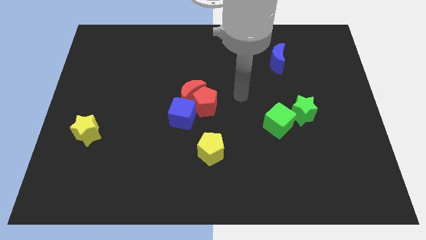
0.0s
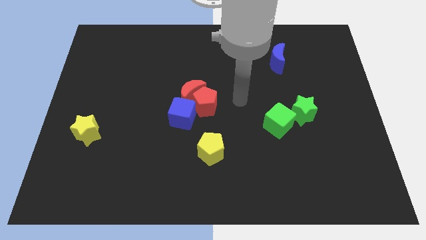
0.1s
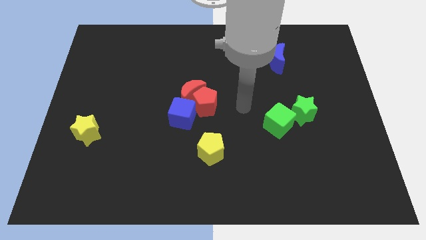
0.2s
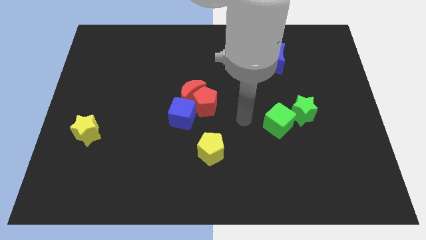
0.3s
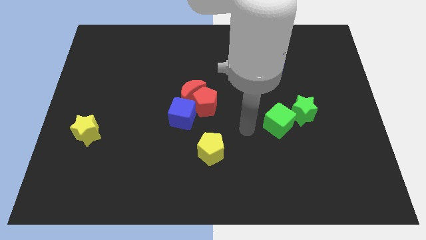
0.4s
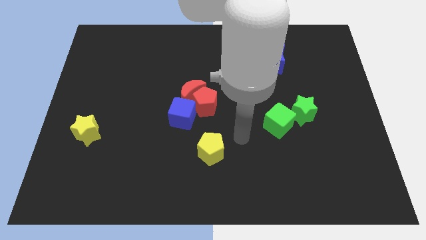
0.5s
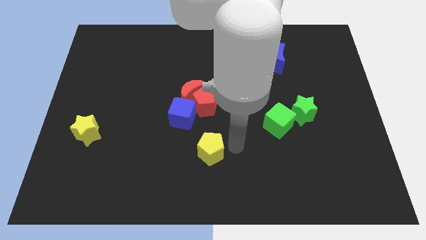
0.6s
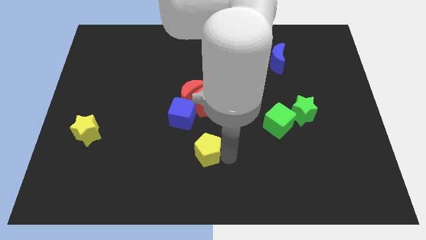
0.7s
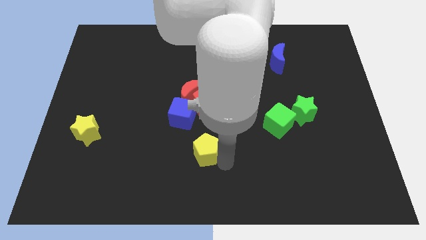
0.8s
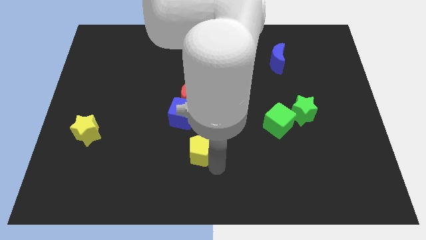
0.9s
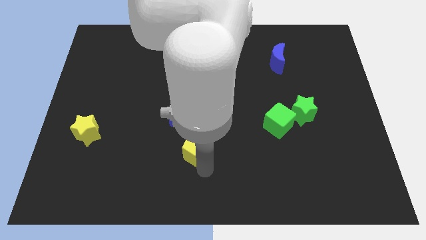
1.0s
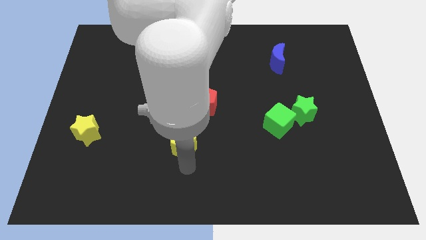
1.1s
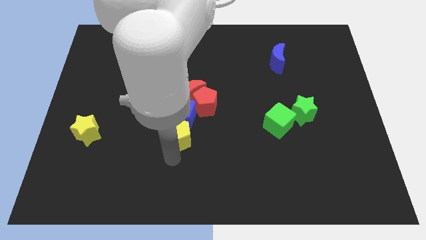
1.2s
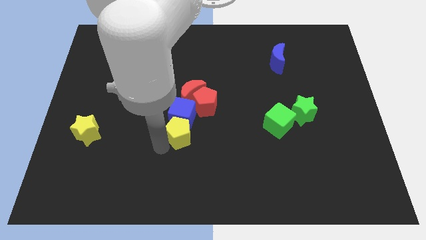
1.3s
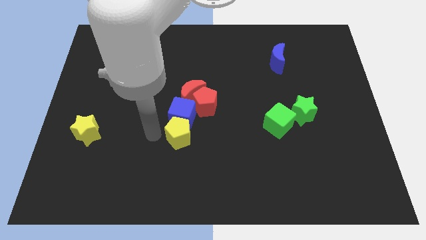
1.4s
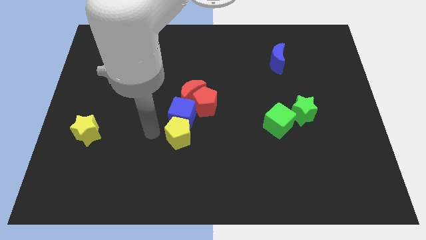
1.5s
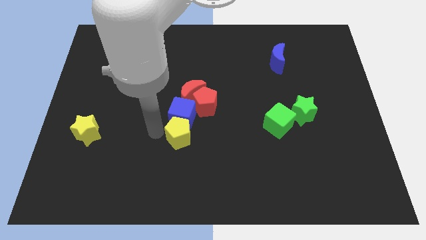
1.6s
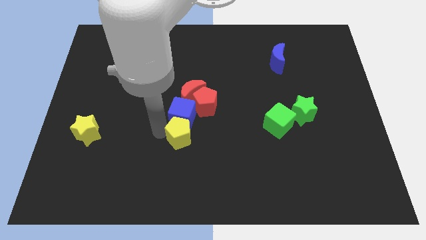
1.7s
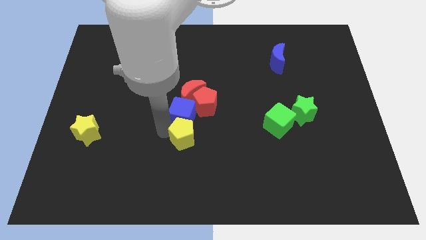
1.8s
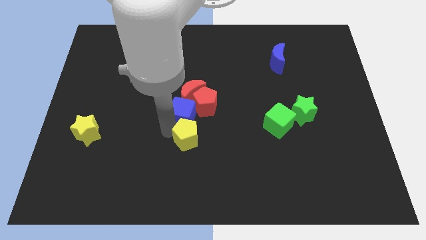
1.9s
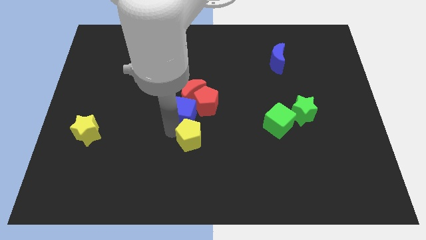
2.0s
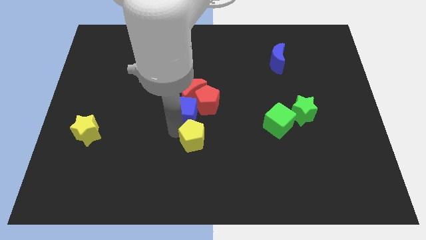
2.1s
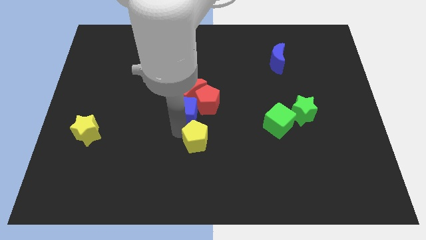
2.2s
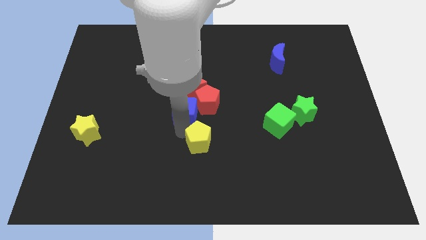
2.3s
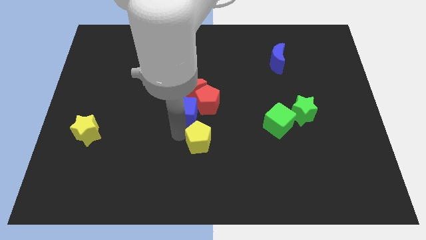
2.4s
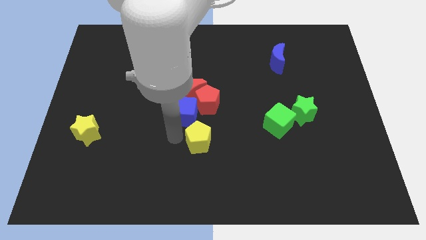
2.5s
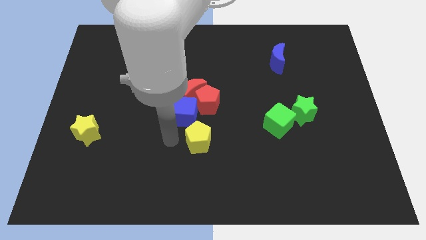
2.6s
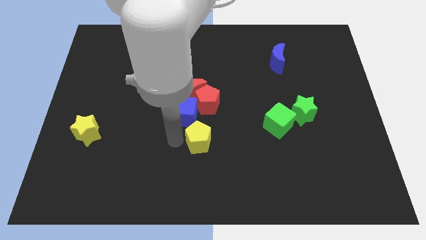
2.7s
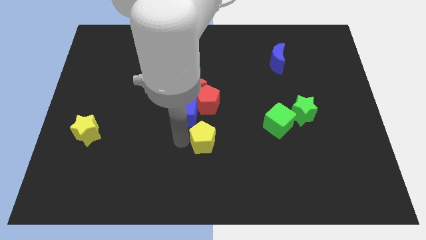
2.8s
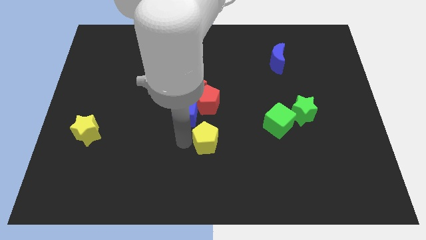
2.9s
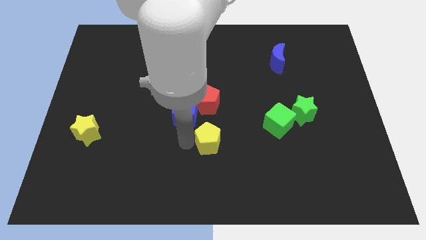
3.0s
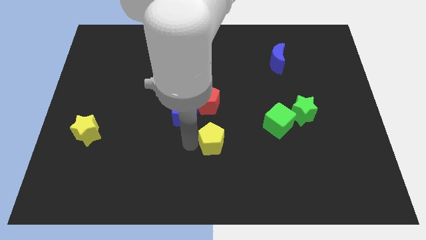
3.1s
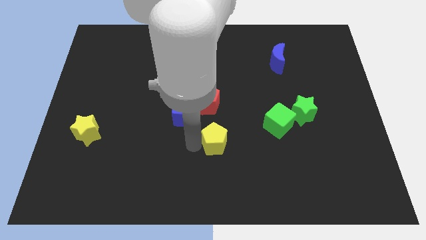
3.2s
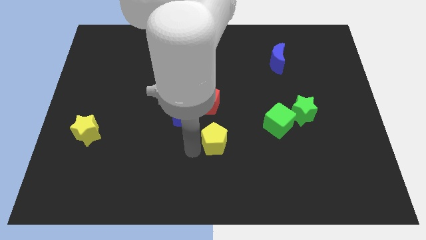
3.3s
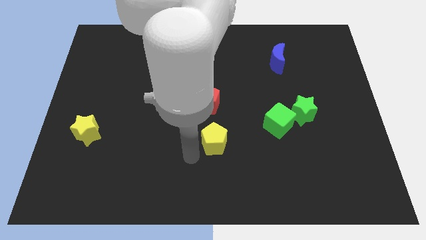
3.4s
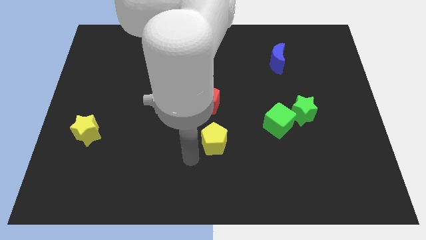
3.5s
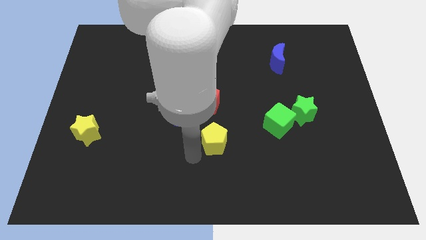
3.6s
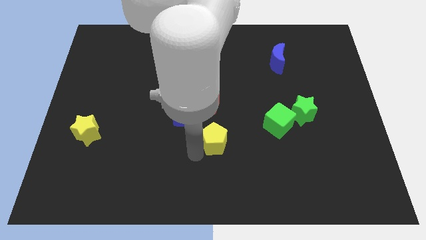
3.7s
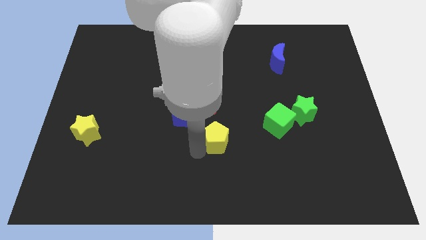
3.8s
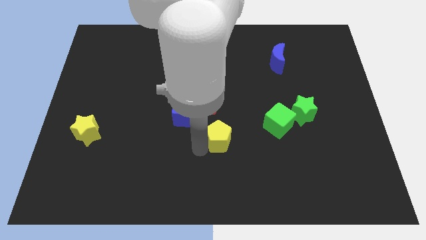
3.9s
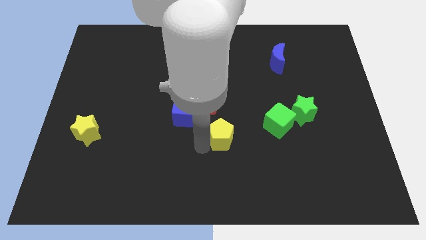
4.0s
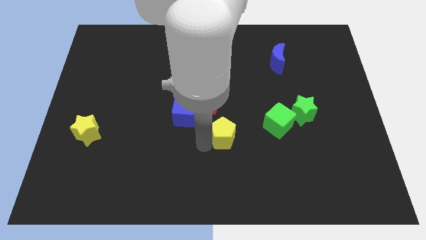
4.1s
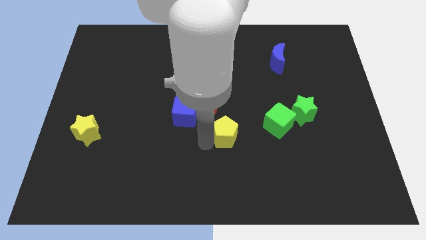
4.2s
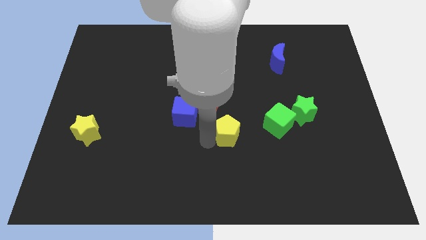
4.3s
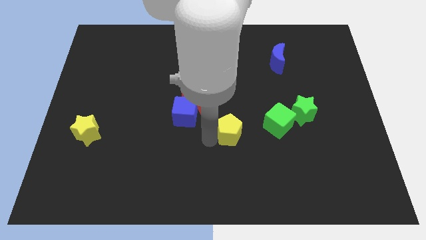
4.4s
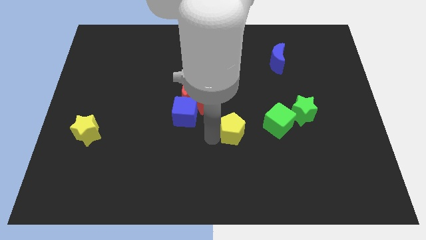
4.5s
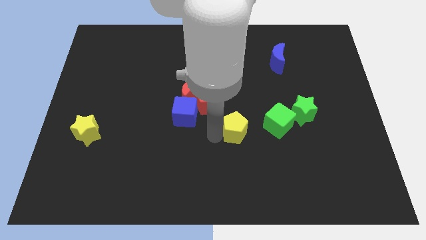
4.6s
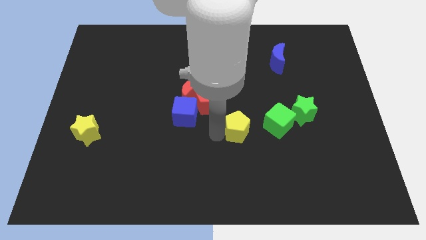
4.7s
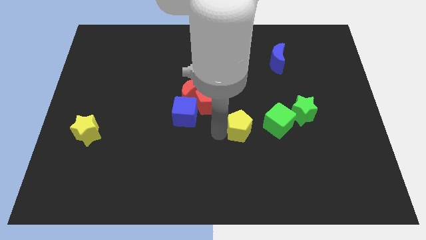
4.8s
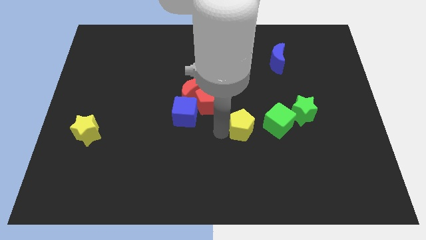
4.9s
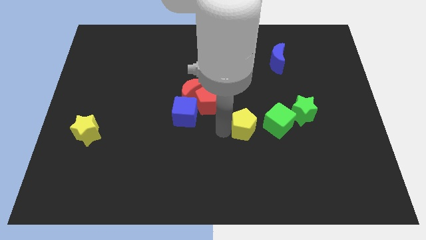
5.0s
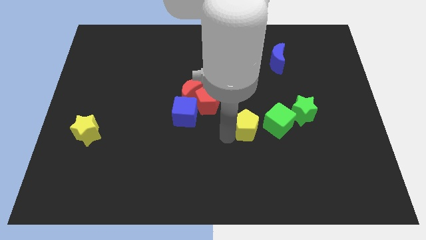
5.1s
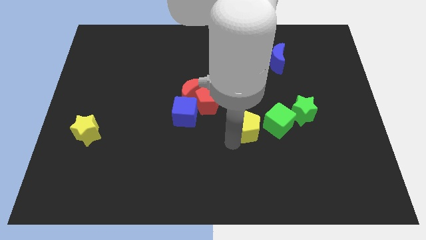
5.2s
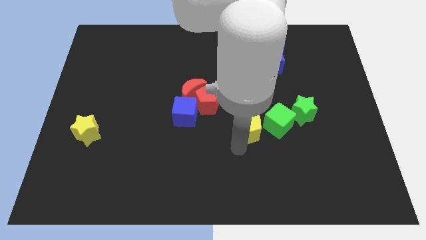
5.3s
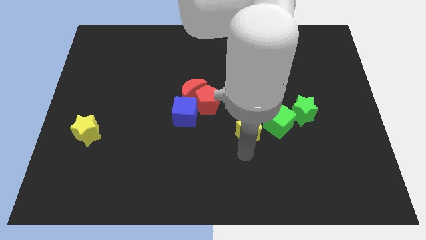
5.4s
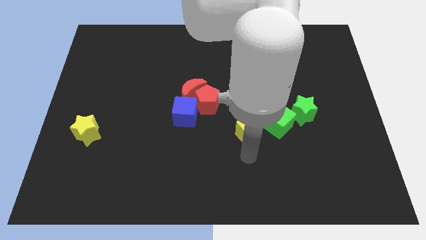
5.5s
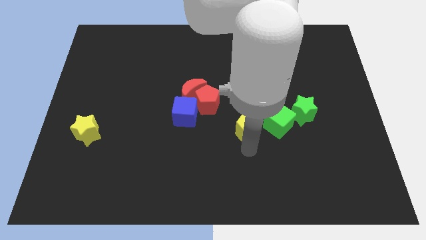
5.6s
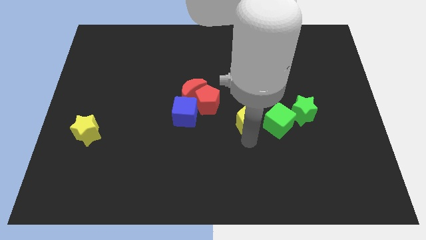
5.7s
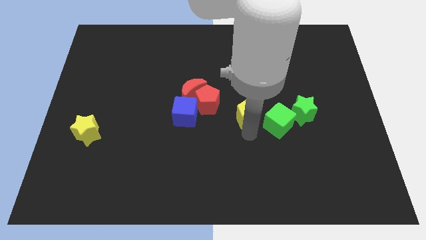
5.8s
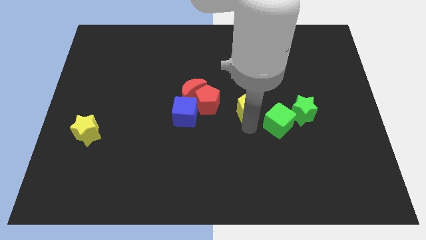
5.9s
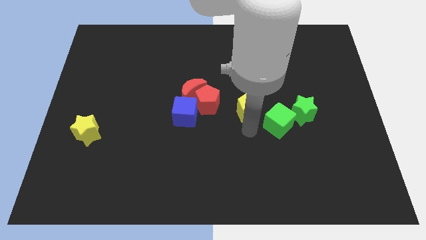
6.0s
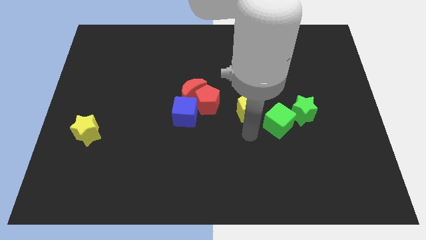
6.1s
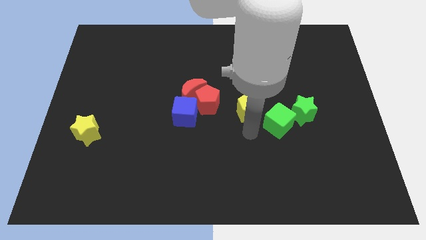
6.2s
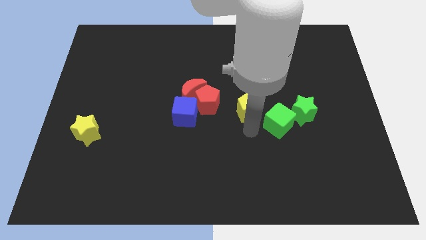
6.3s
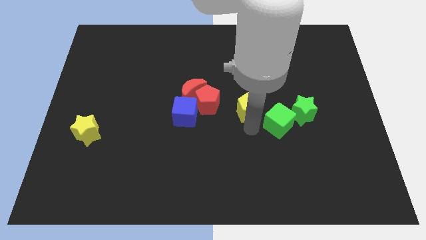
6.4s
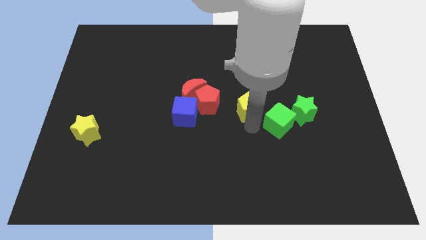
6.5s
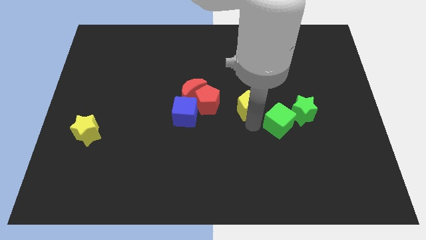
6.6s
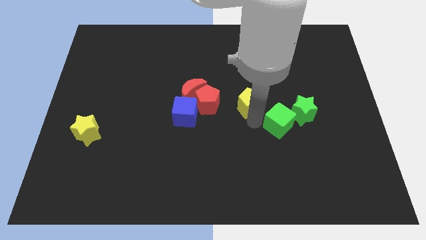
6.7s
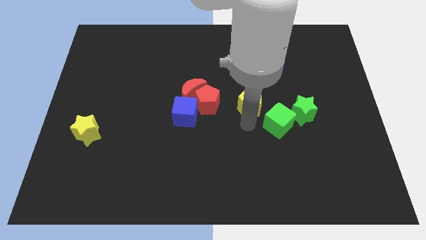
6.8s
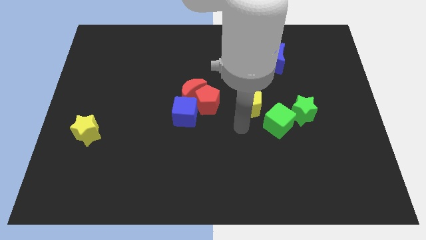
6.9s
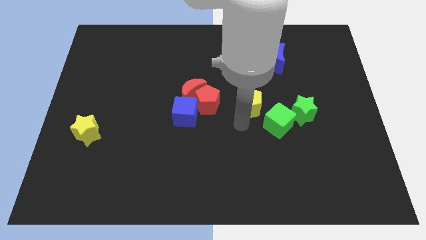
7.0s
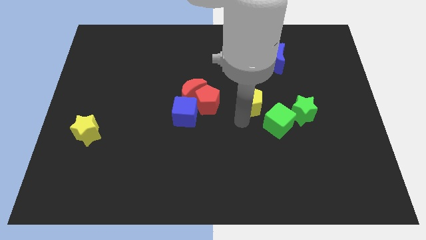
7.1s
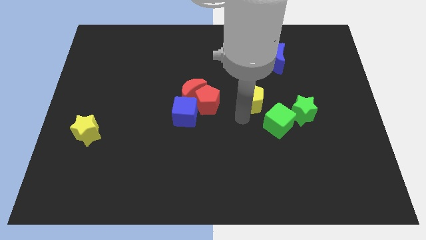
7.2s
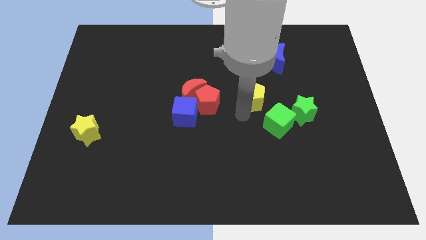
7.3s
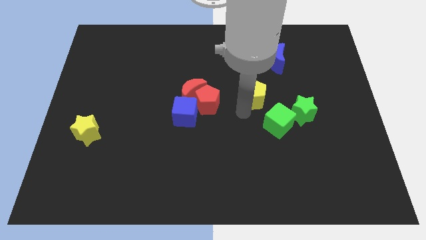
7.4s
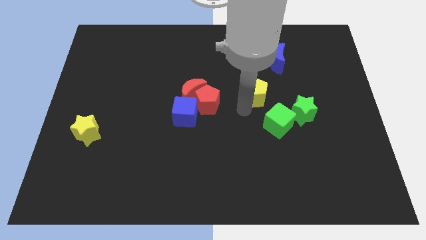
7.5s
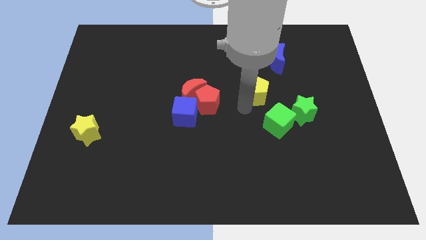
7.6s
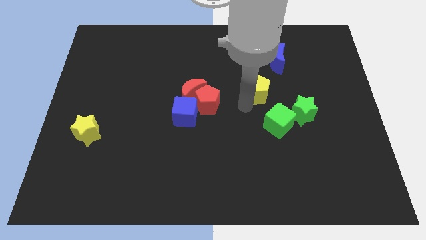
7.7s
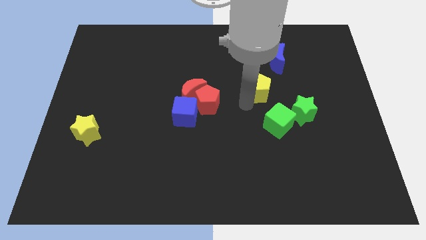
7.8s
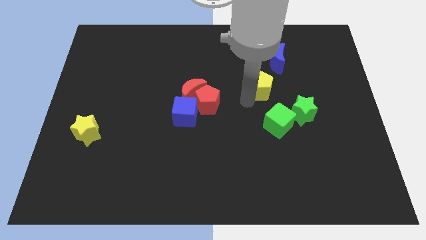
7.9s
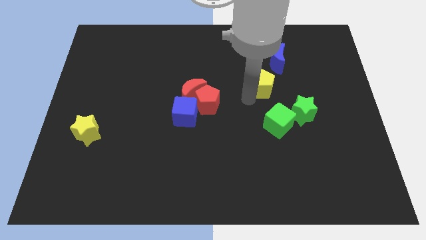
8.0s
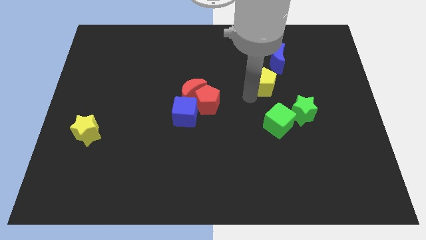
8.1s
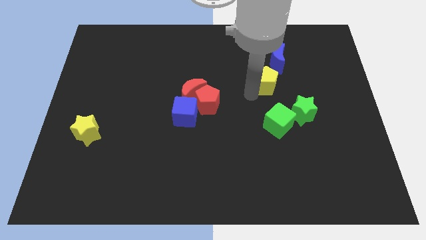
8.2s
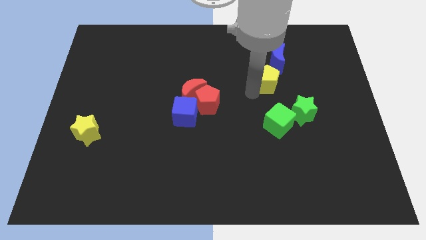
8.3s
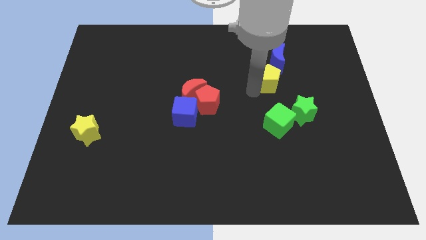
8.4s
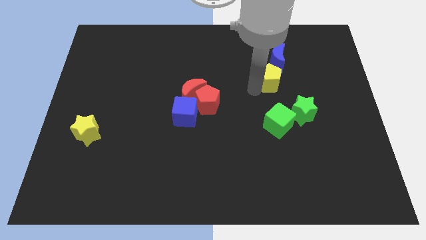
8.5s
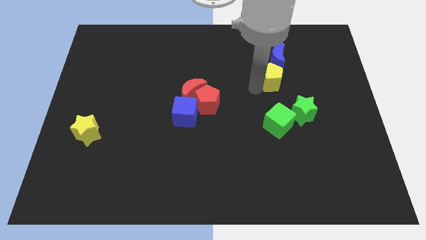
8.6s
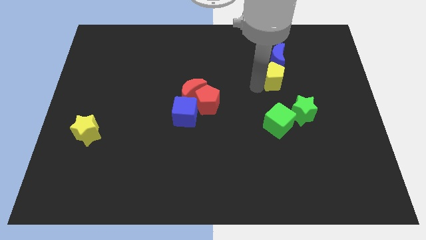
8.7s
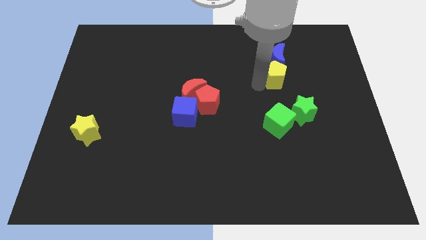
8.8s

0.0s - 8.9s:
push the yellow pentagon towards the blue moon
